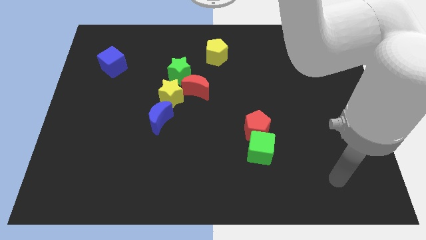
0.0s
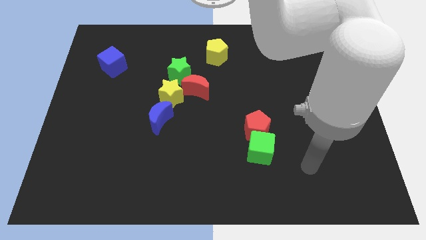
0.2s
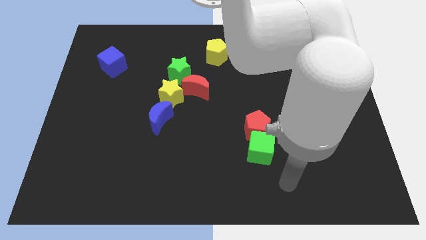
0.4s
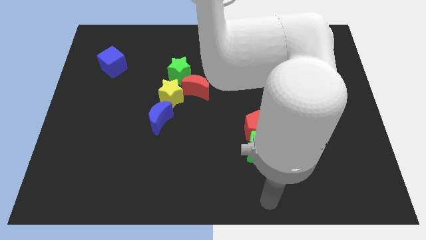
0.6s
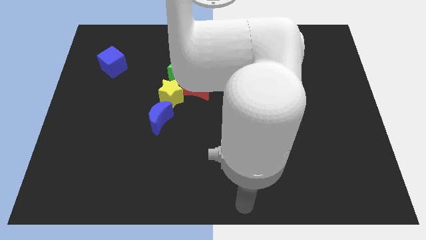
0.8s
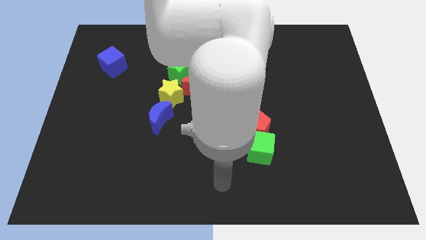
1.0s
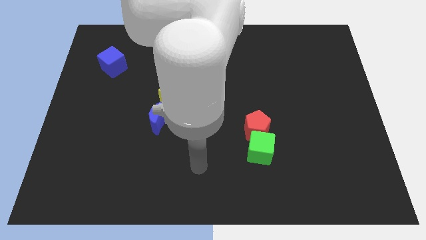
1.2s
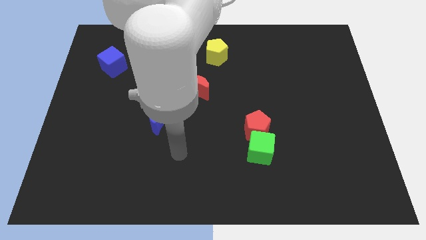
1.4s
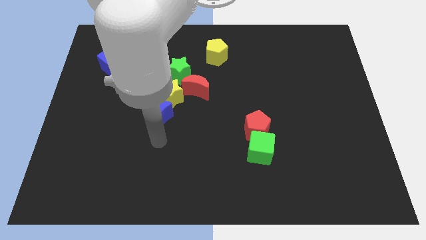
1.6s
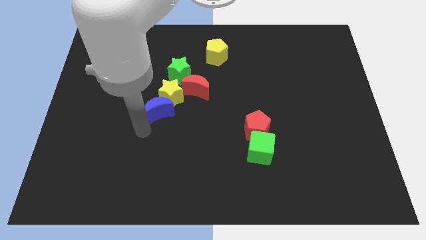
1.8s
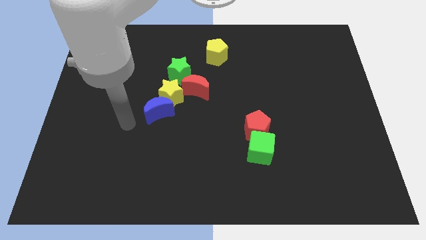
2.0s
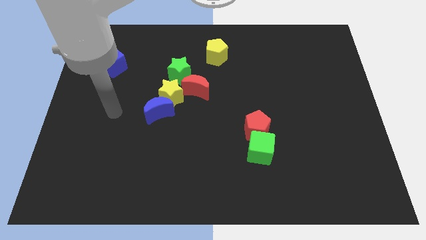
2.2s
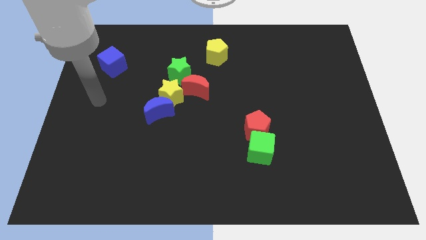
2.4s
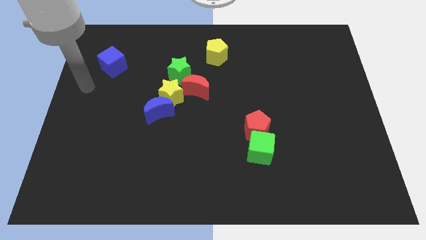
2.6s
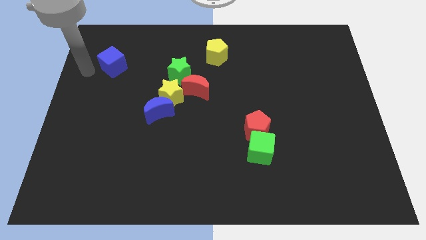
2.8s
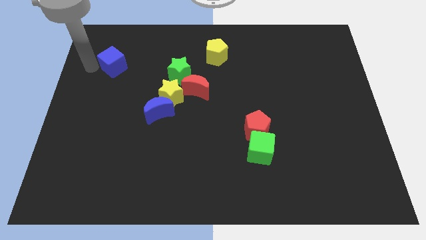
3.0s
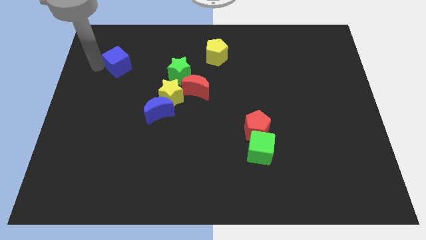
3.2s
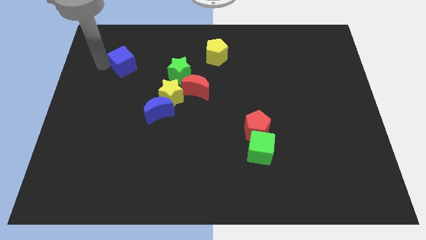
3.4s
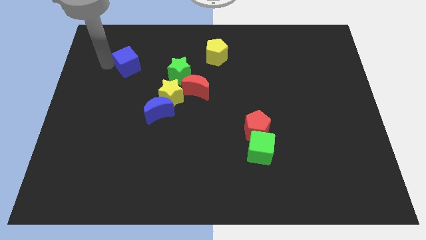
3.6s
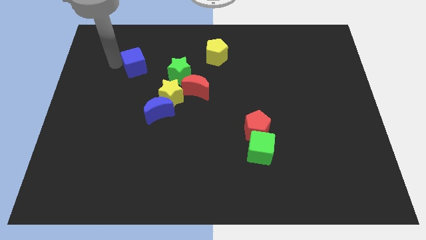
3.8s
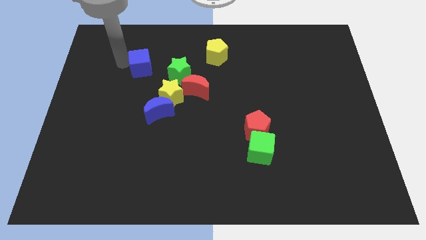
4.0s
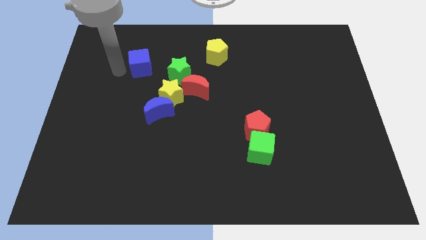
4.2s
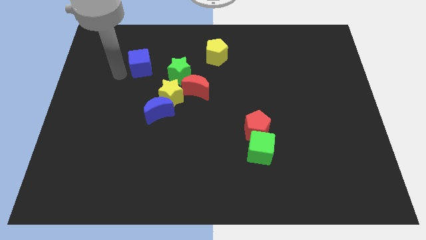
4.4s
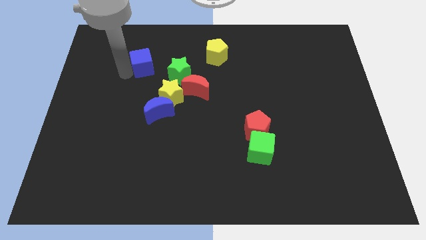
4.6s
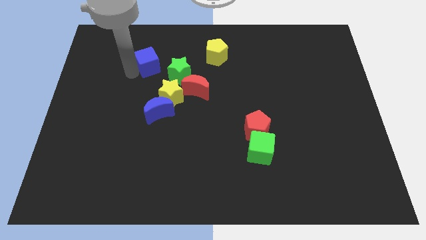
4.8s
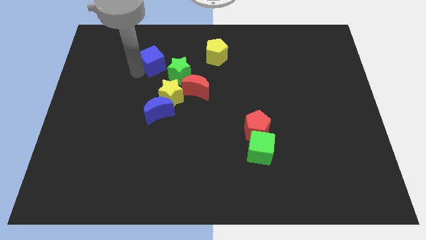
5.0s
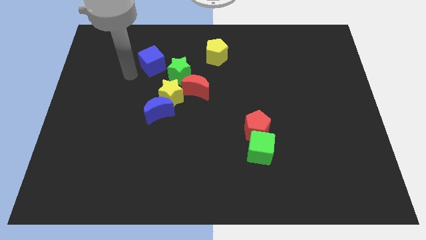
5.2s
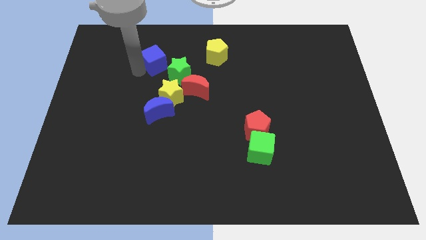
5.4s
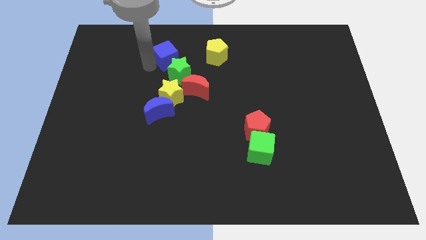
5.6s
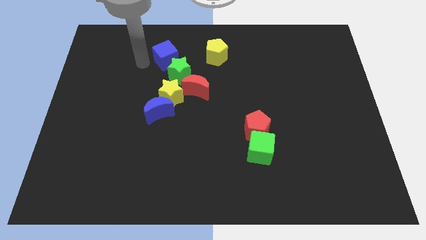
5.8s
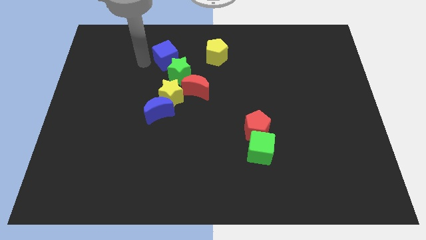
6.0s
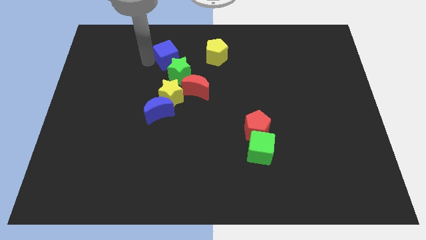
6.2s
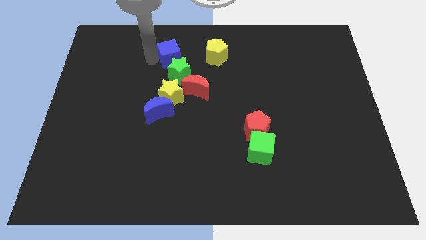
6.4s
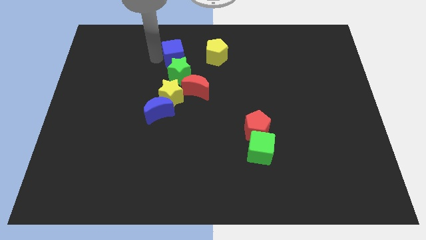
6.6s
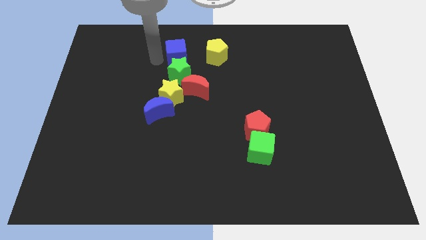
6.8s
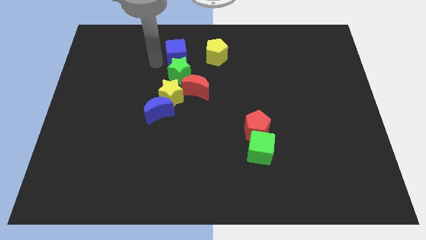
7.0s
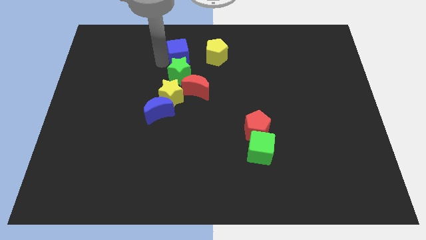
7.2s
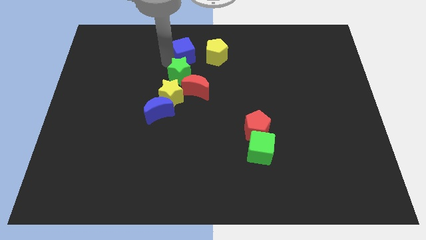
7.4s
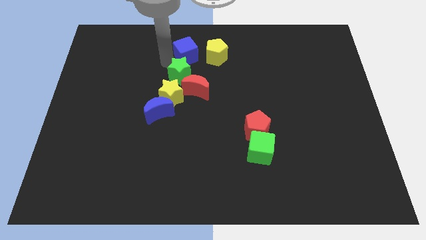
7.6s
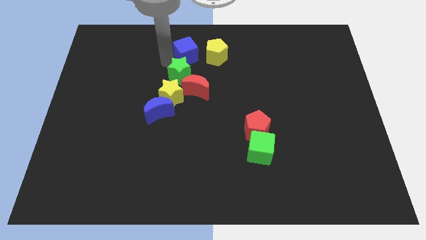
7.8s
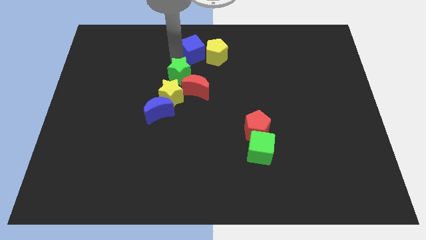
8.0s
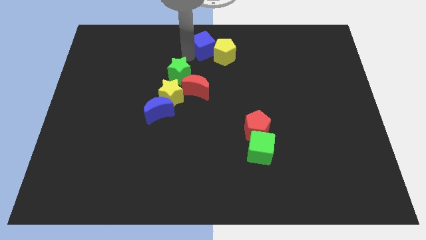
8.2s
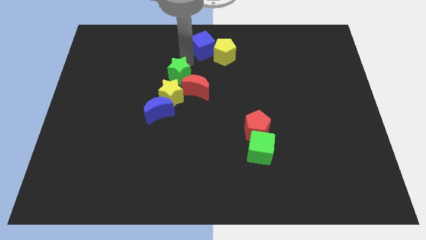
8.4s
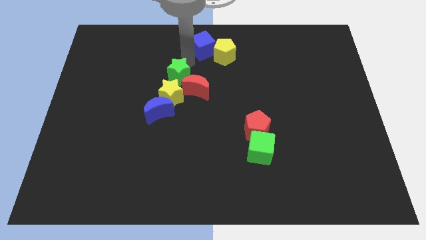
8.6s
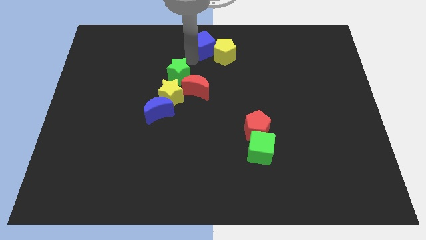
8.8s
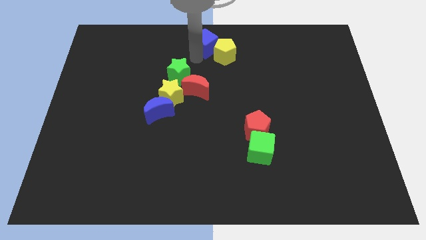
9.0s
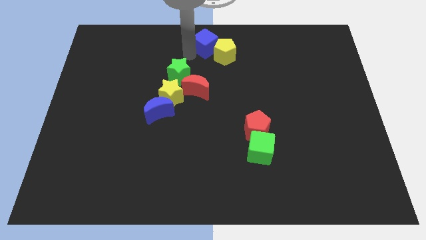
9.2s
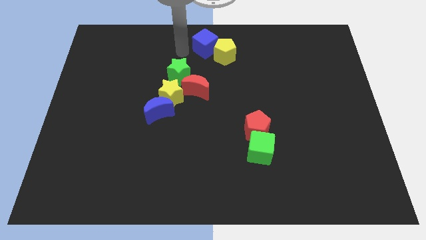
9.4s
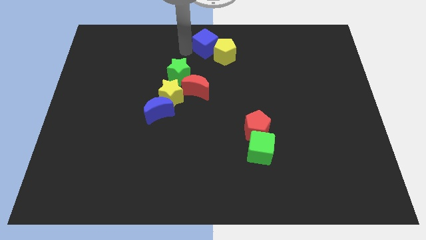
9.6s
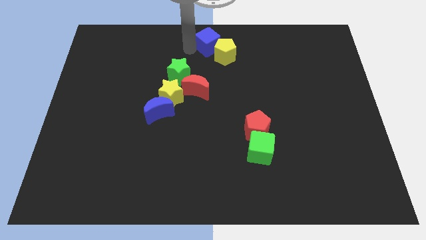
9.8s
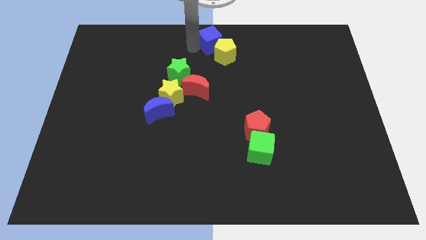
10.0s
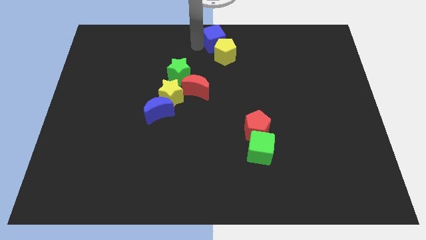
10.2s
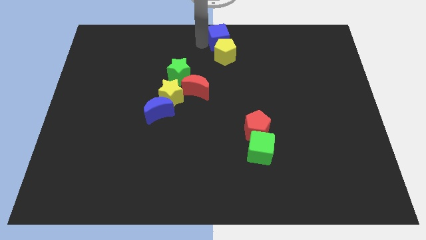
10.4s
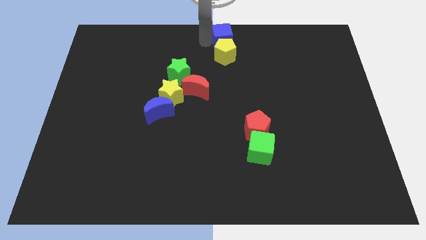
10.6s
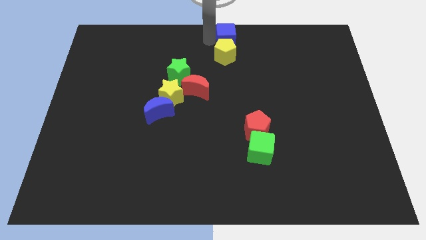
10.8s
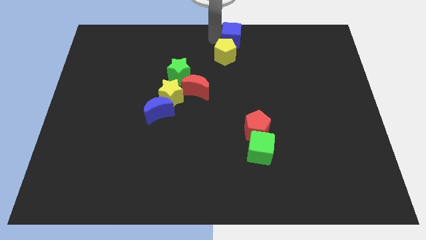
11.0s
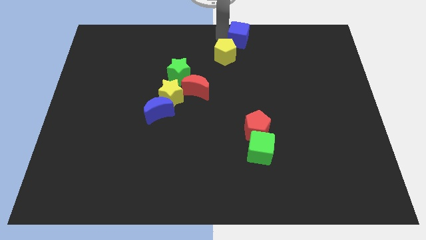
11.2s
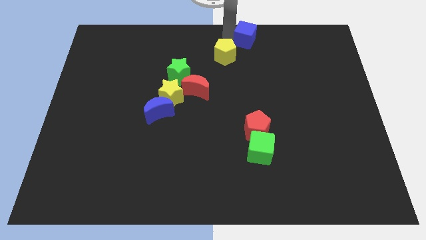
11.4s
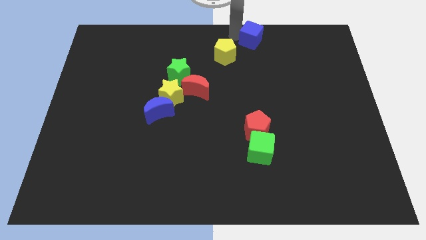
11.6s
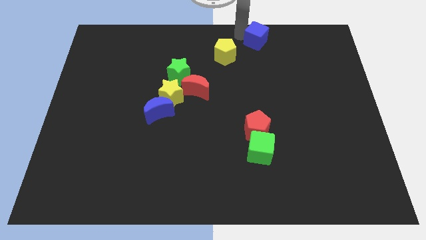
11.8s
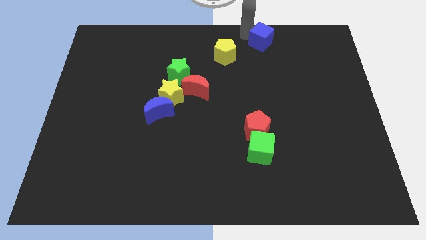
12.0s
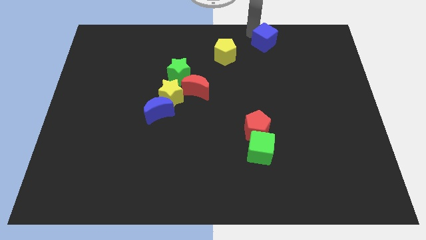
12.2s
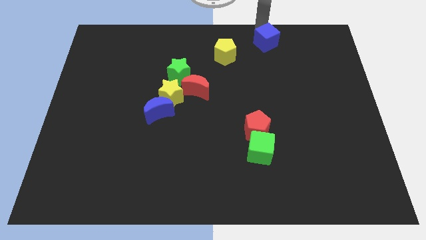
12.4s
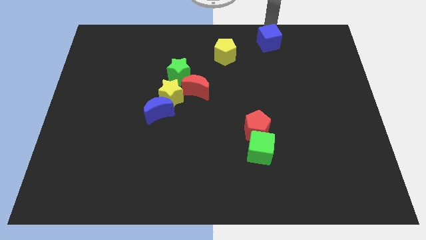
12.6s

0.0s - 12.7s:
move the blue cube to the right side of the yellow pentagon

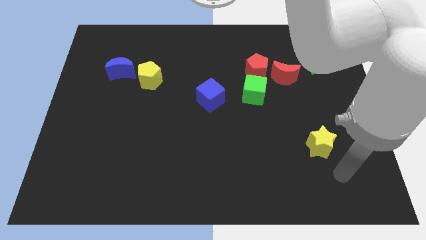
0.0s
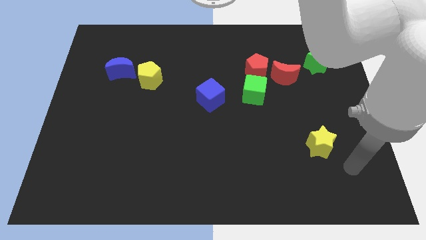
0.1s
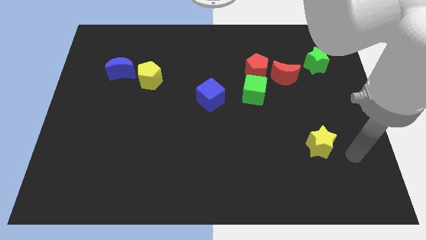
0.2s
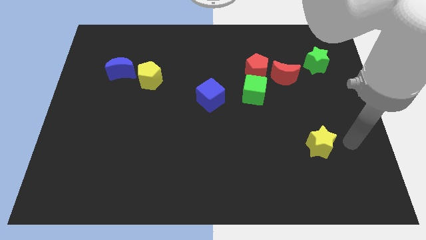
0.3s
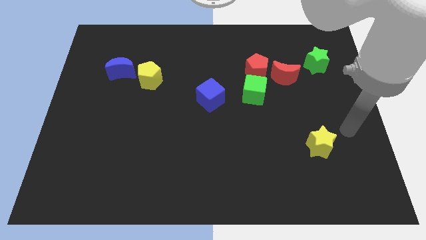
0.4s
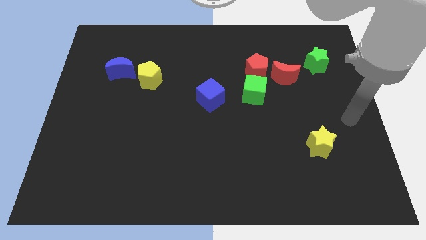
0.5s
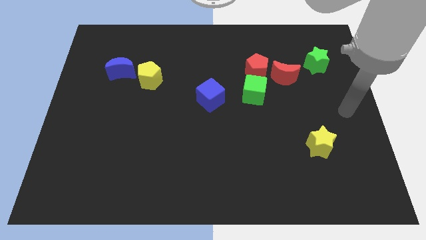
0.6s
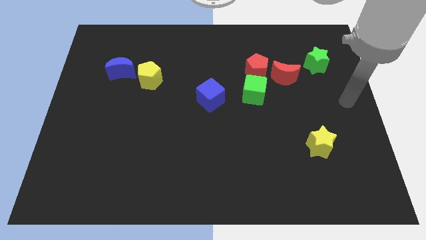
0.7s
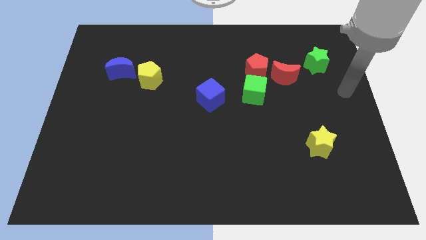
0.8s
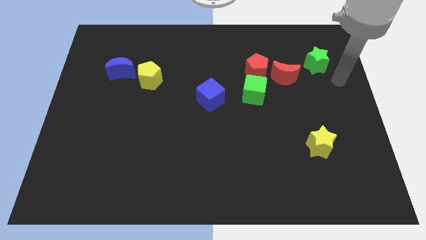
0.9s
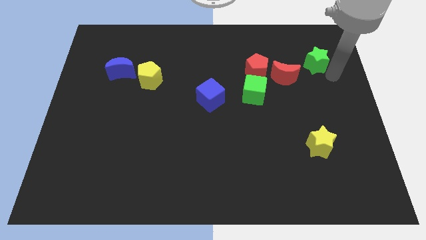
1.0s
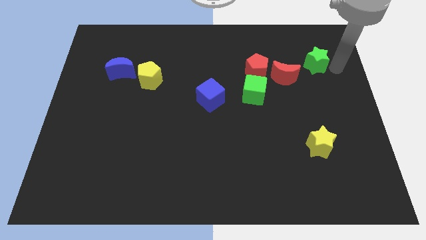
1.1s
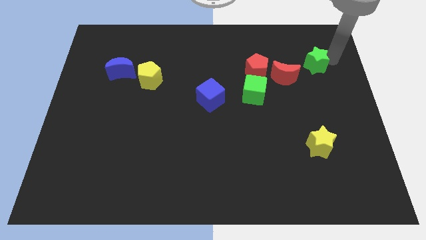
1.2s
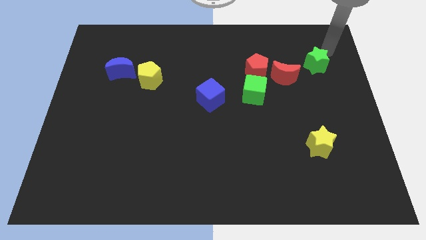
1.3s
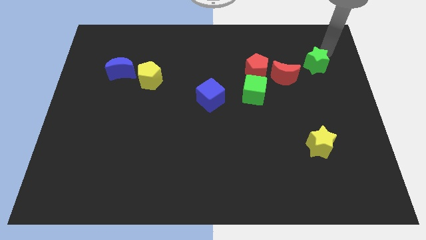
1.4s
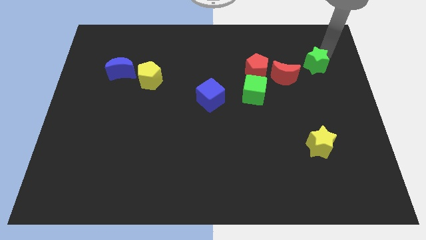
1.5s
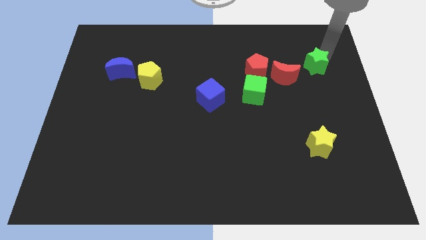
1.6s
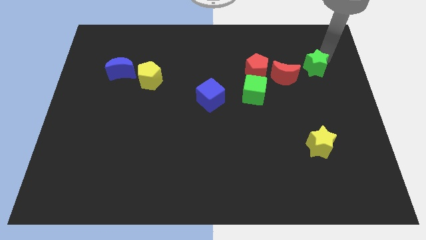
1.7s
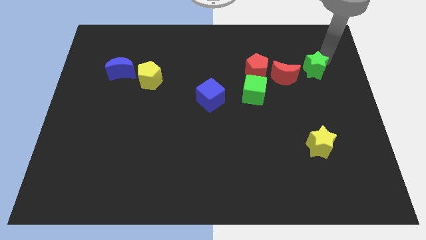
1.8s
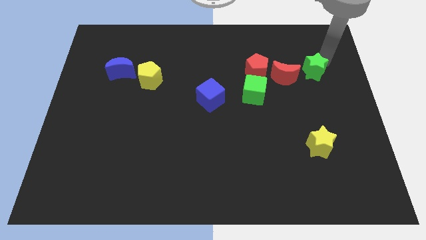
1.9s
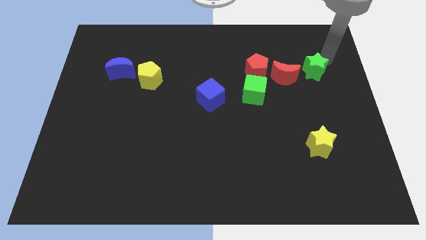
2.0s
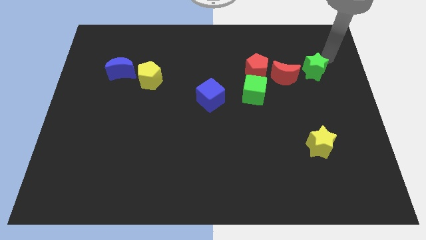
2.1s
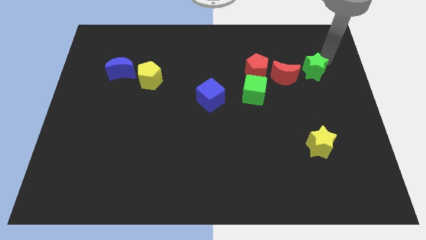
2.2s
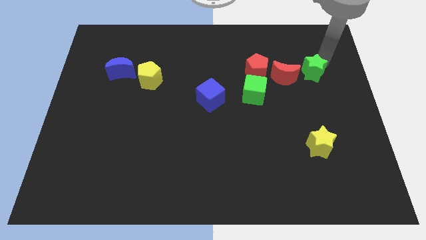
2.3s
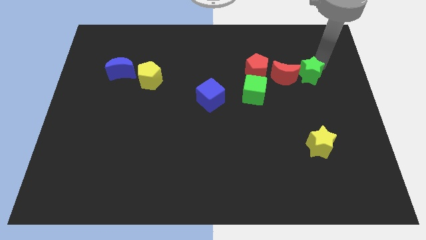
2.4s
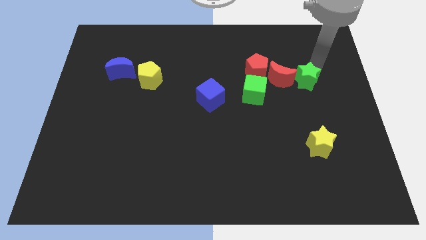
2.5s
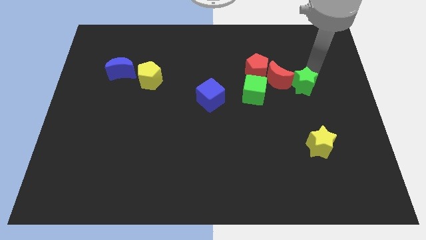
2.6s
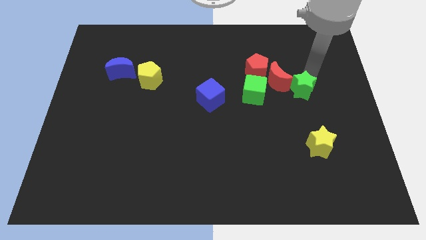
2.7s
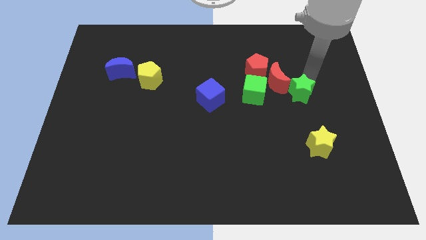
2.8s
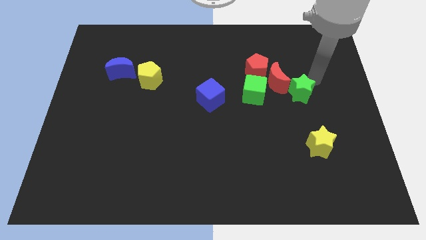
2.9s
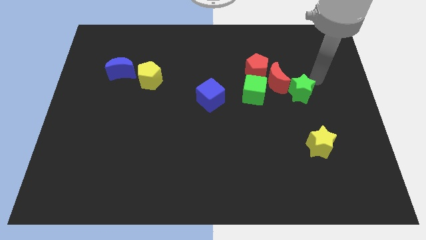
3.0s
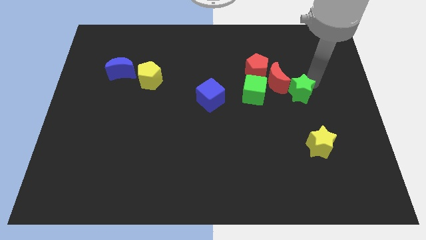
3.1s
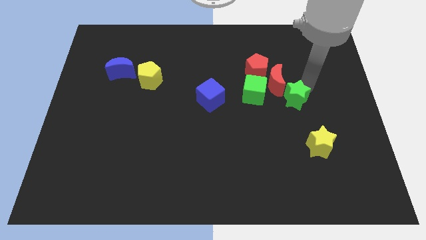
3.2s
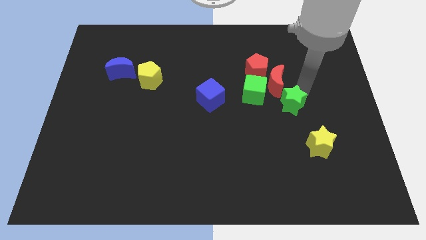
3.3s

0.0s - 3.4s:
move the green star diagonally down and to the right of the green cube
